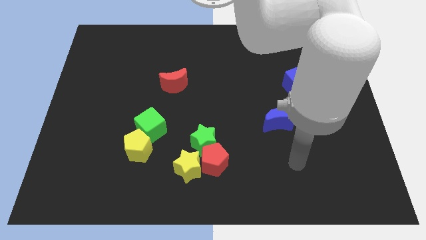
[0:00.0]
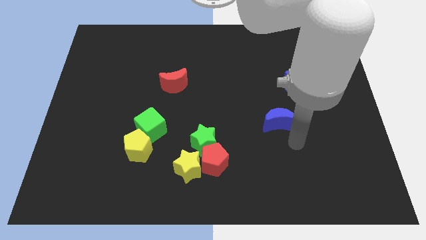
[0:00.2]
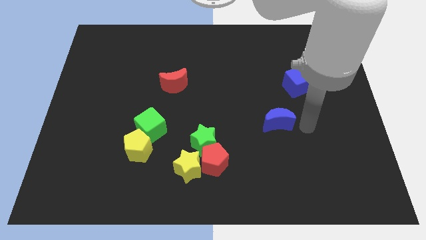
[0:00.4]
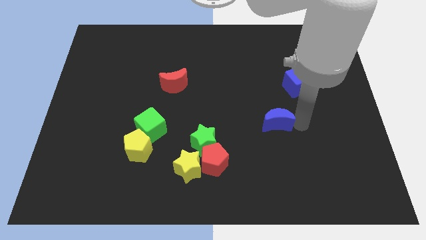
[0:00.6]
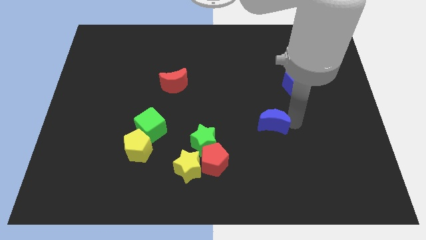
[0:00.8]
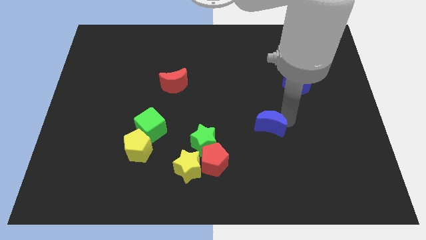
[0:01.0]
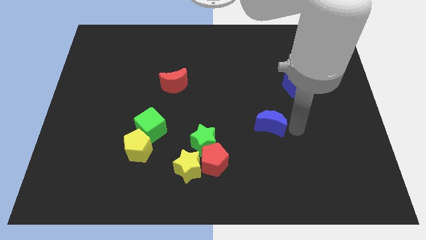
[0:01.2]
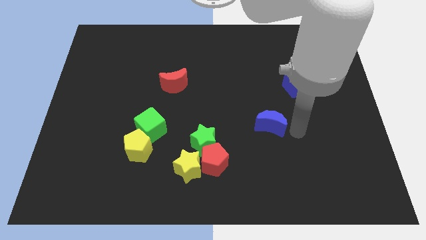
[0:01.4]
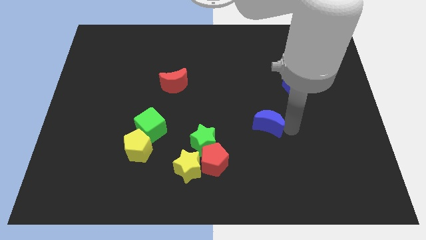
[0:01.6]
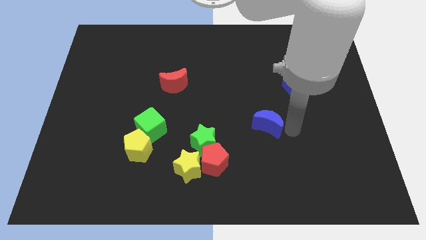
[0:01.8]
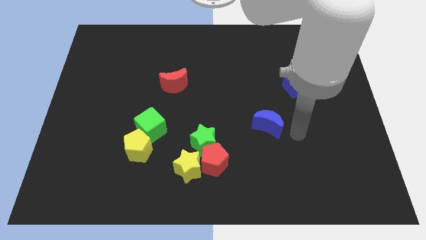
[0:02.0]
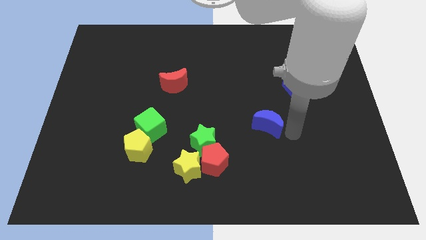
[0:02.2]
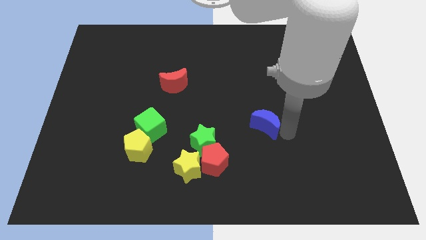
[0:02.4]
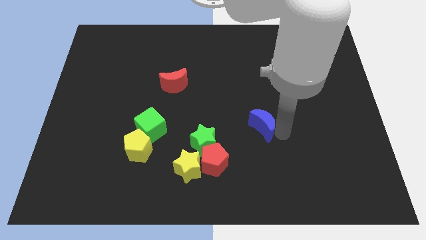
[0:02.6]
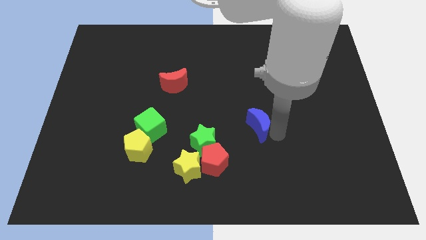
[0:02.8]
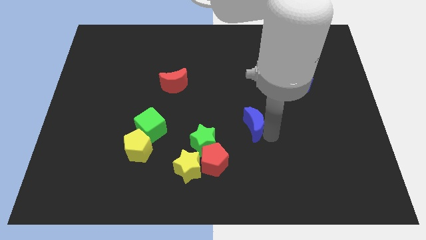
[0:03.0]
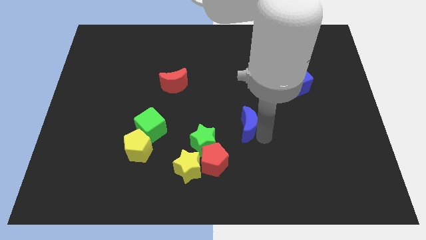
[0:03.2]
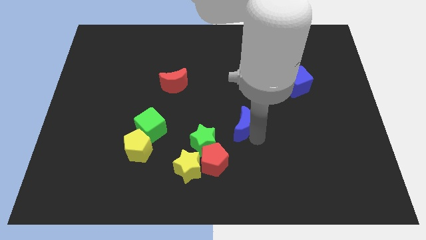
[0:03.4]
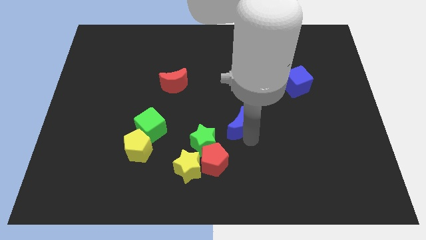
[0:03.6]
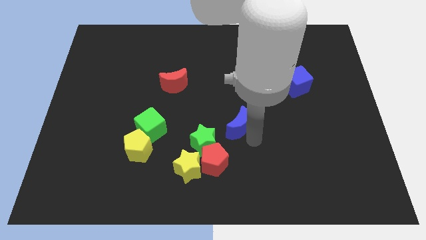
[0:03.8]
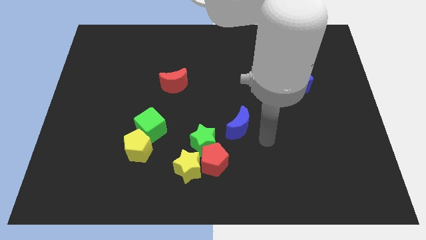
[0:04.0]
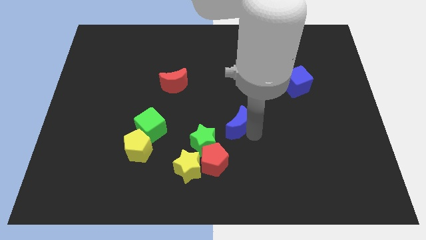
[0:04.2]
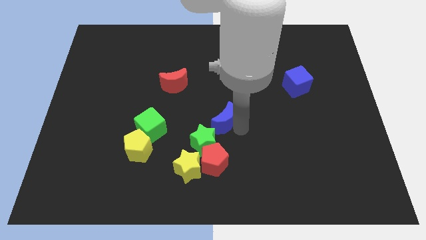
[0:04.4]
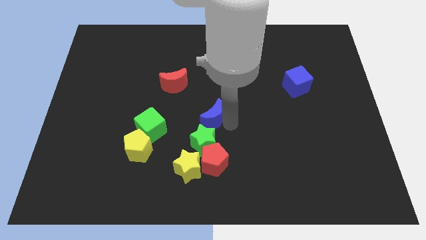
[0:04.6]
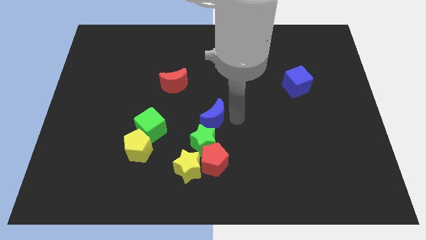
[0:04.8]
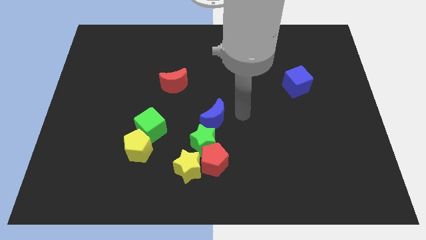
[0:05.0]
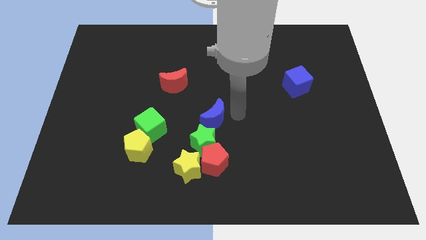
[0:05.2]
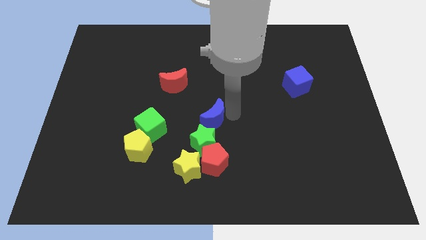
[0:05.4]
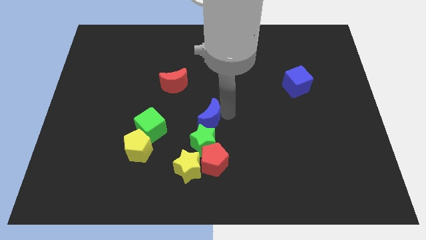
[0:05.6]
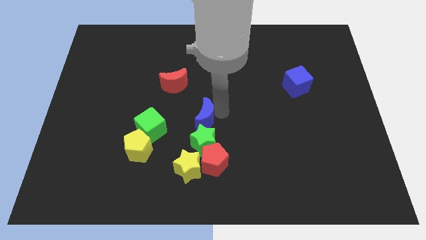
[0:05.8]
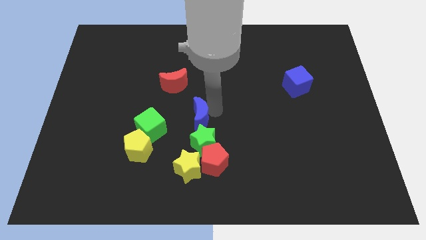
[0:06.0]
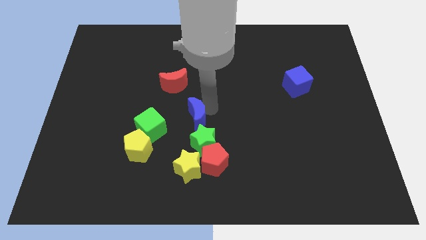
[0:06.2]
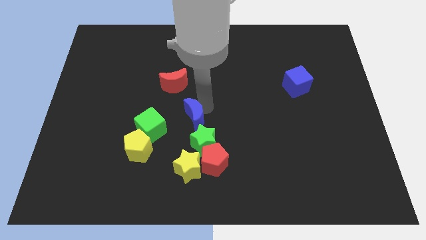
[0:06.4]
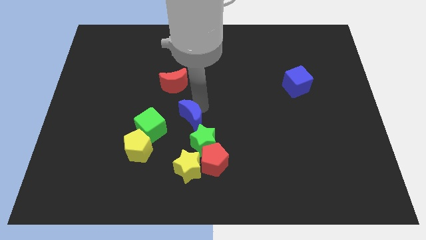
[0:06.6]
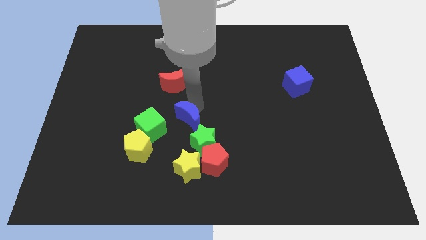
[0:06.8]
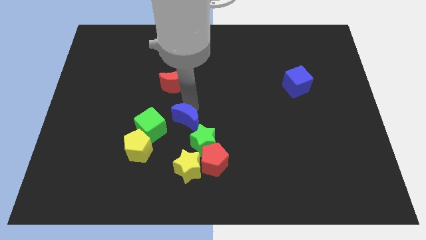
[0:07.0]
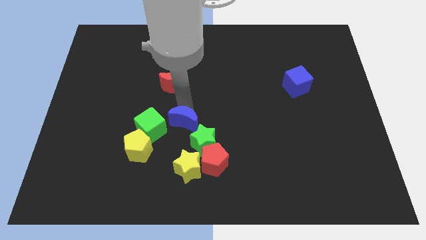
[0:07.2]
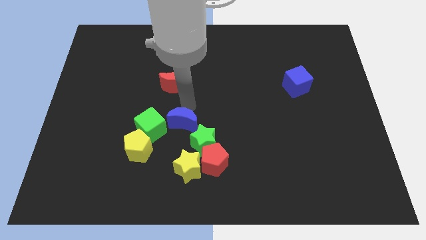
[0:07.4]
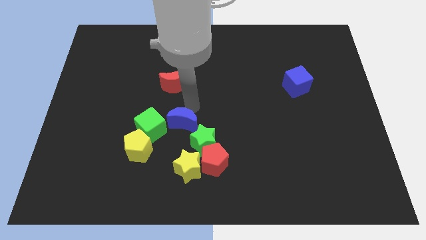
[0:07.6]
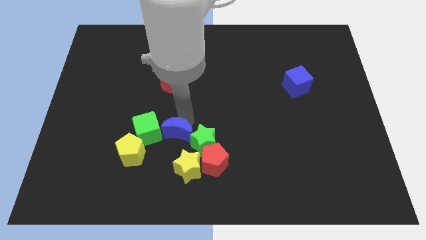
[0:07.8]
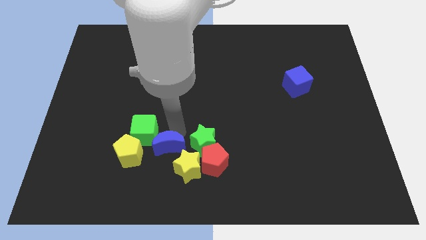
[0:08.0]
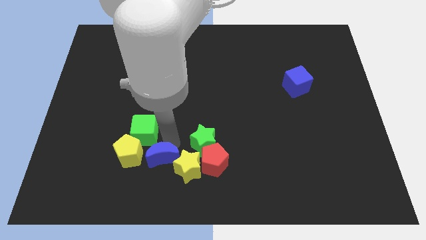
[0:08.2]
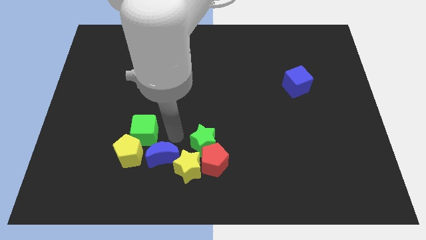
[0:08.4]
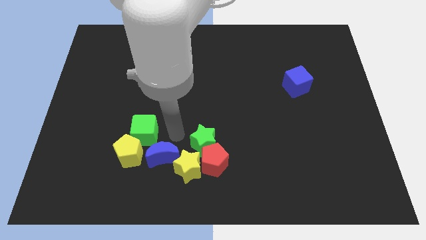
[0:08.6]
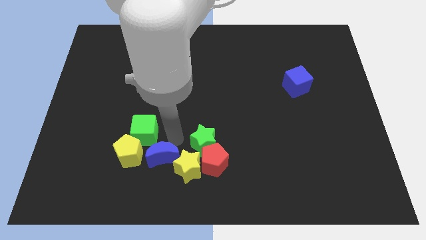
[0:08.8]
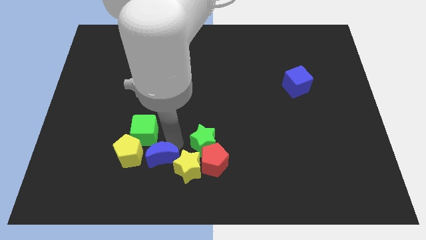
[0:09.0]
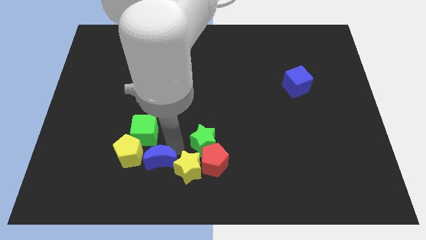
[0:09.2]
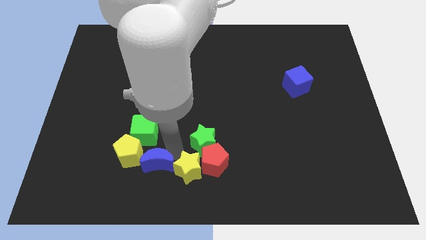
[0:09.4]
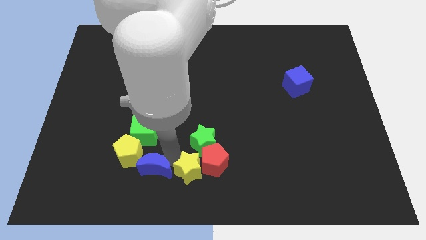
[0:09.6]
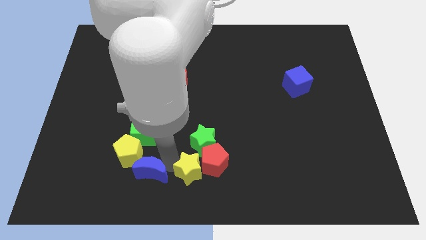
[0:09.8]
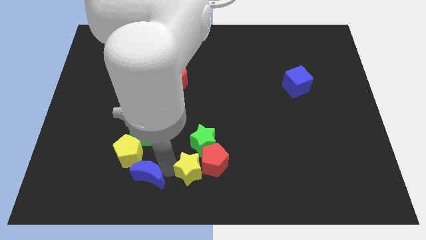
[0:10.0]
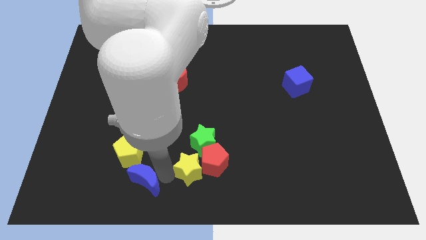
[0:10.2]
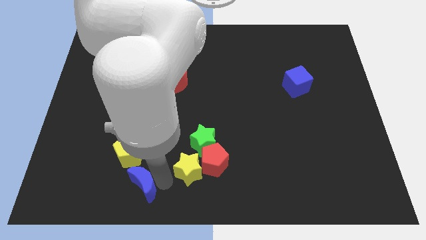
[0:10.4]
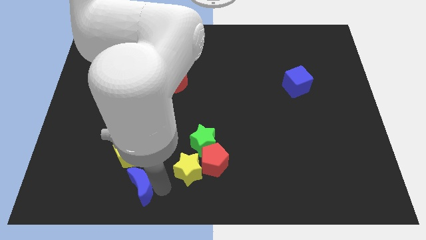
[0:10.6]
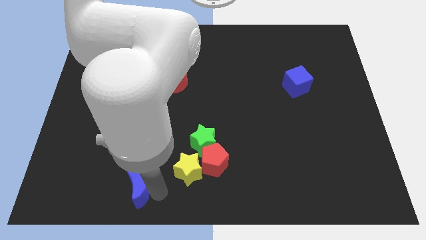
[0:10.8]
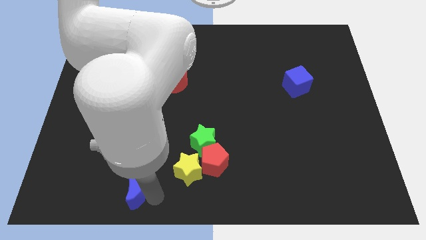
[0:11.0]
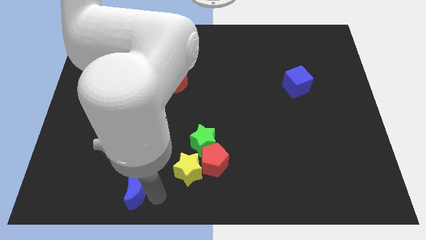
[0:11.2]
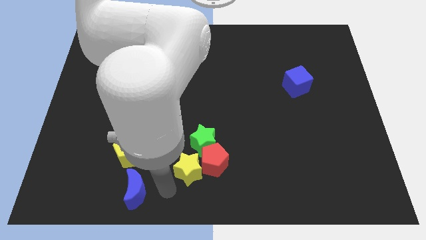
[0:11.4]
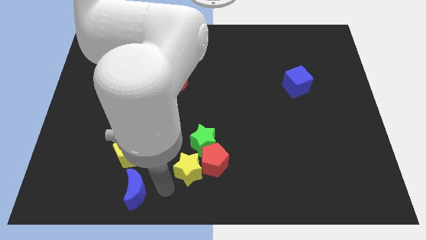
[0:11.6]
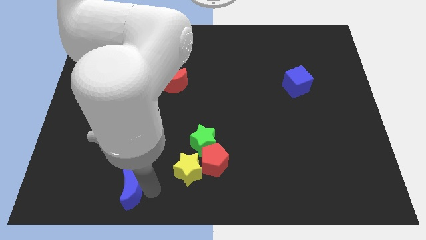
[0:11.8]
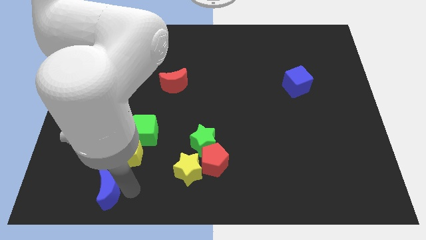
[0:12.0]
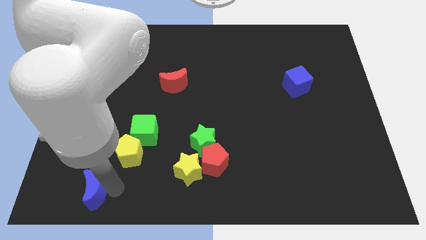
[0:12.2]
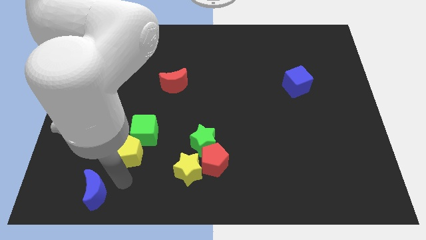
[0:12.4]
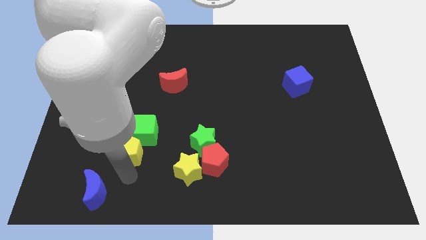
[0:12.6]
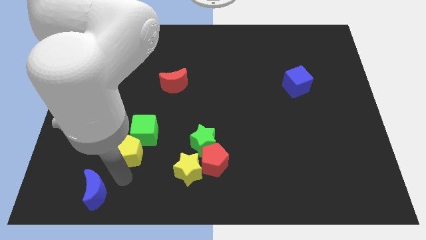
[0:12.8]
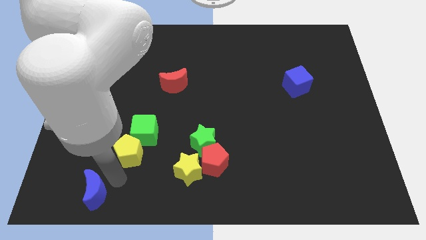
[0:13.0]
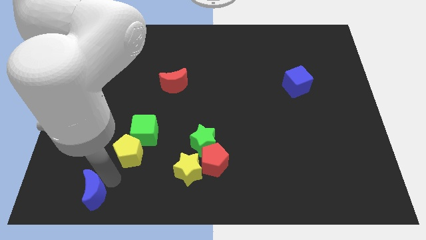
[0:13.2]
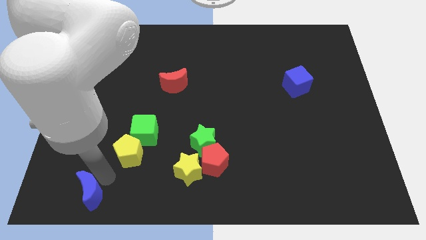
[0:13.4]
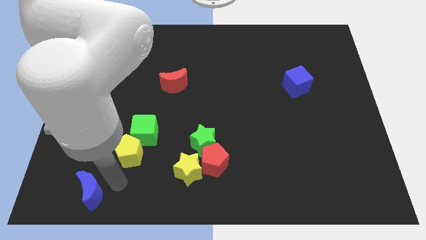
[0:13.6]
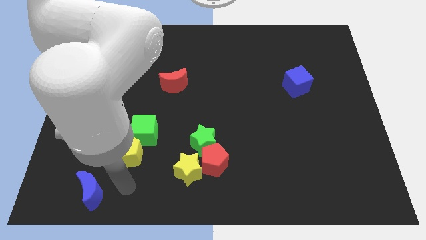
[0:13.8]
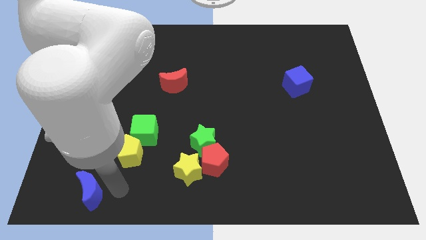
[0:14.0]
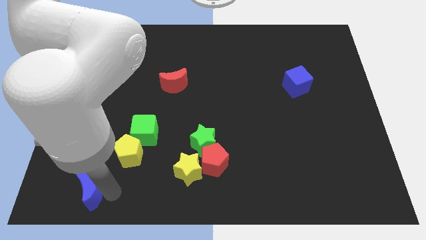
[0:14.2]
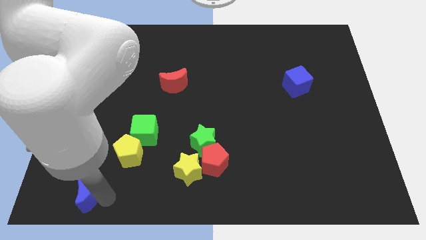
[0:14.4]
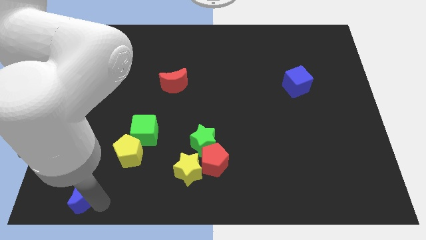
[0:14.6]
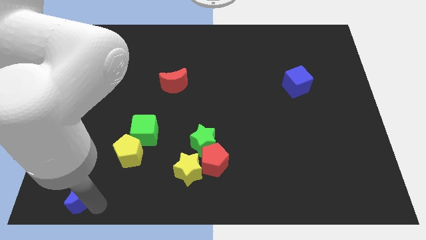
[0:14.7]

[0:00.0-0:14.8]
move the blue moon to the lower left corner

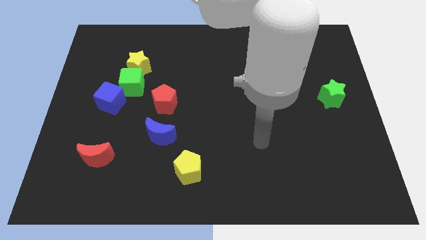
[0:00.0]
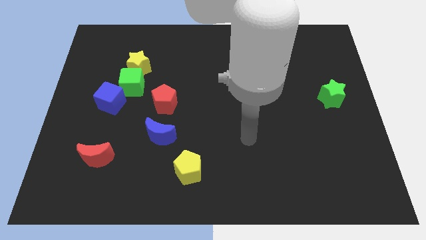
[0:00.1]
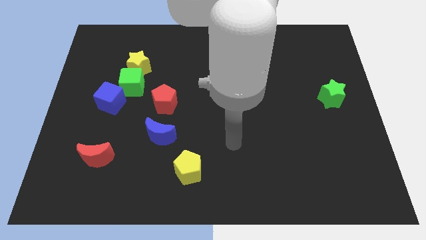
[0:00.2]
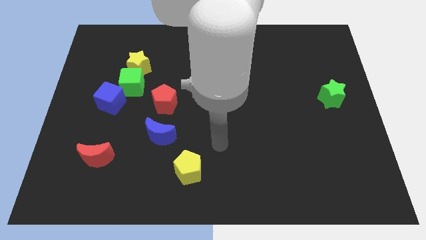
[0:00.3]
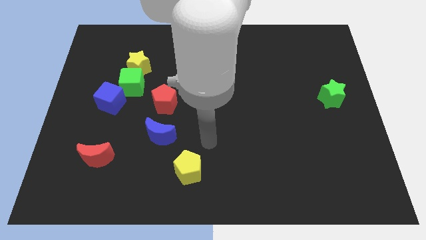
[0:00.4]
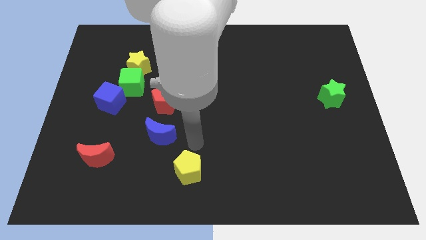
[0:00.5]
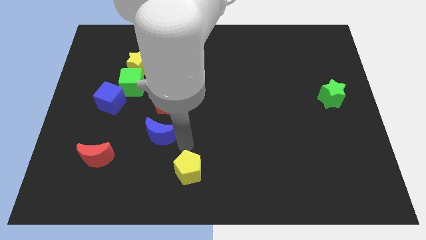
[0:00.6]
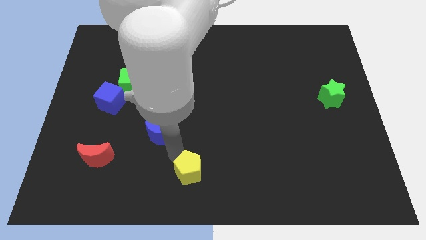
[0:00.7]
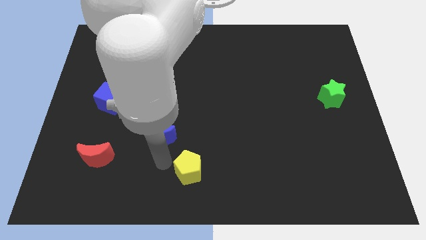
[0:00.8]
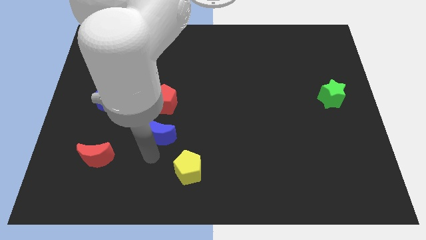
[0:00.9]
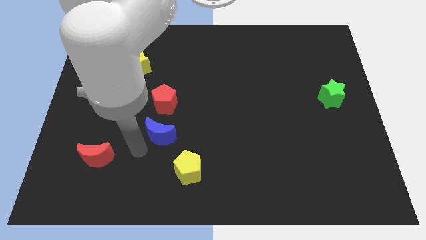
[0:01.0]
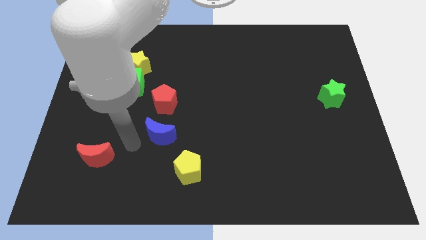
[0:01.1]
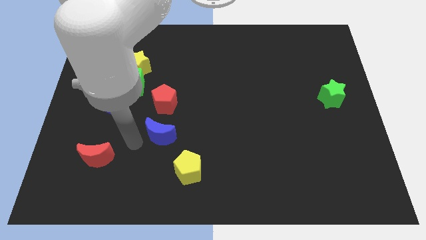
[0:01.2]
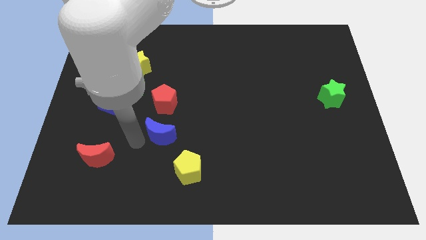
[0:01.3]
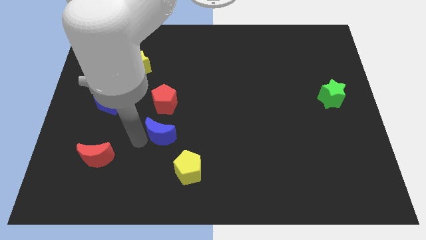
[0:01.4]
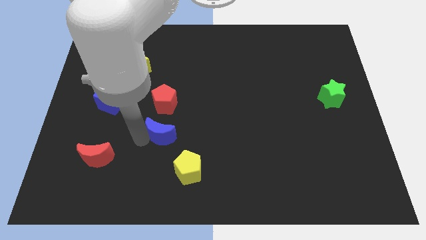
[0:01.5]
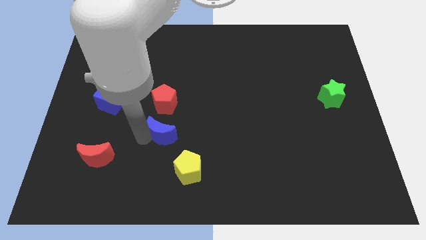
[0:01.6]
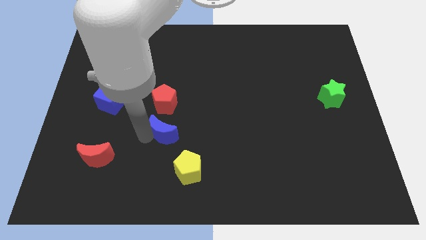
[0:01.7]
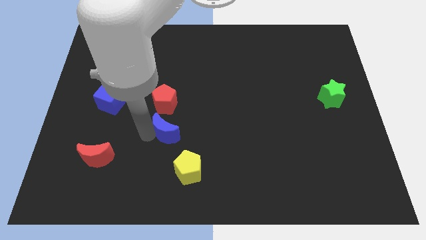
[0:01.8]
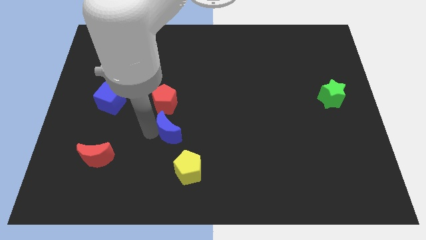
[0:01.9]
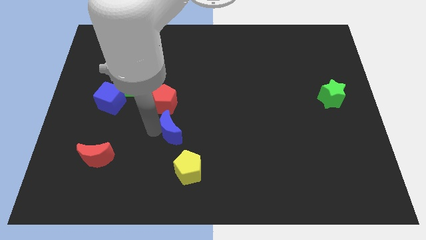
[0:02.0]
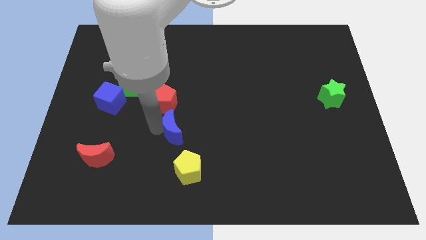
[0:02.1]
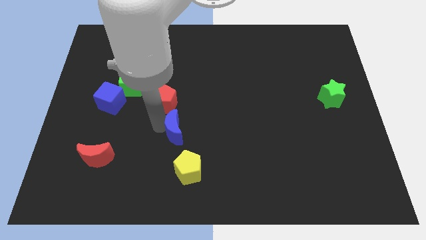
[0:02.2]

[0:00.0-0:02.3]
move the blue moon to the middle
